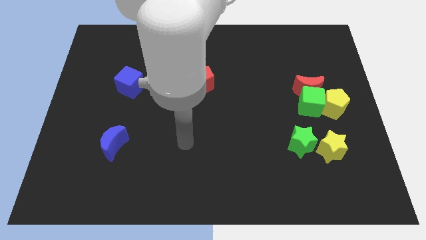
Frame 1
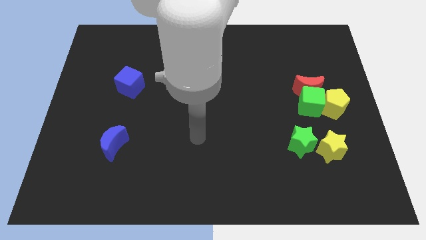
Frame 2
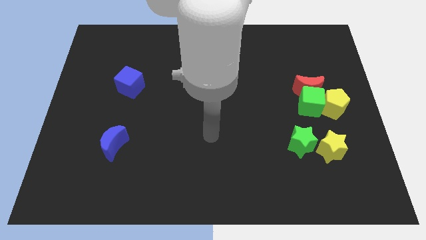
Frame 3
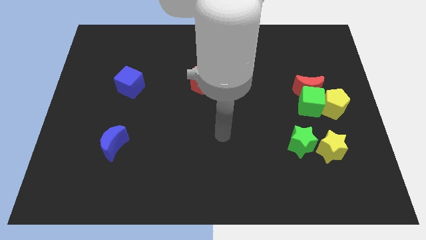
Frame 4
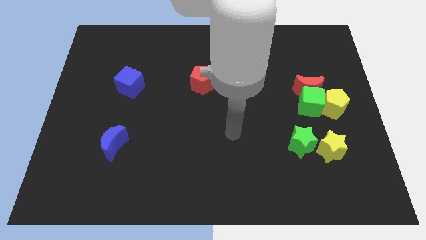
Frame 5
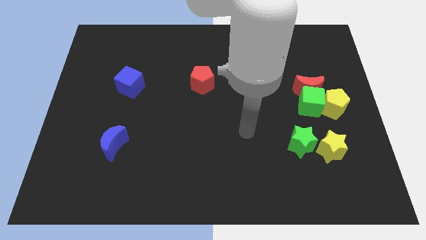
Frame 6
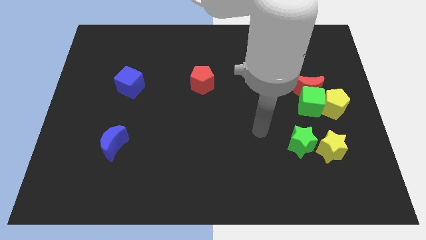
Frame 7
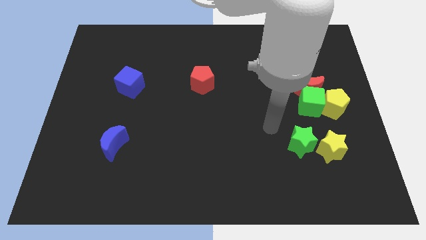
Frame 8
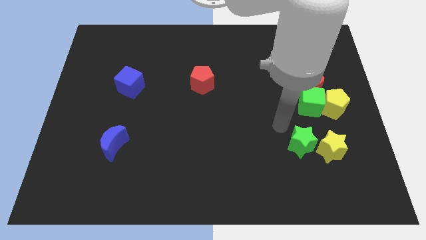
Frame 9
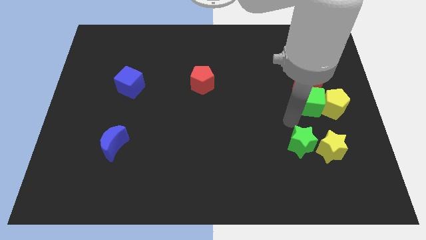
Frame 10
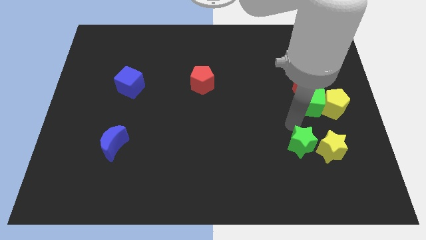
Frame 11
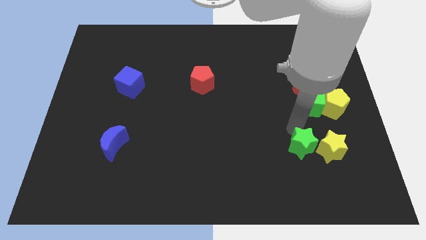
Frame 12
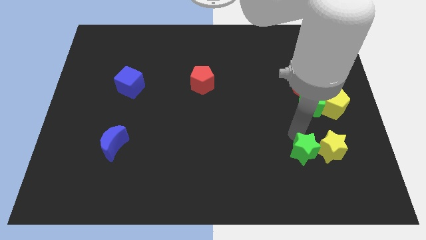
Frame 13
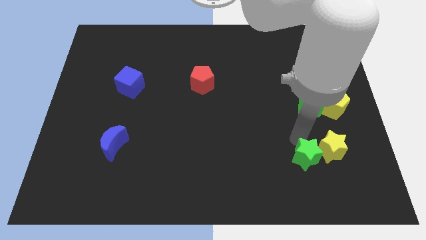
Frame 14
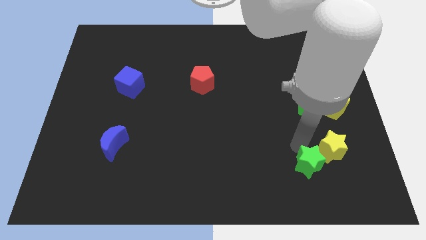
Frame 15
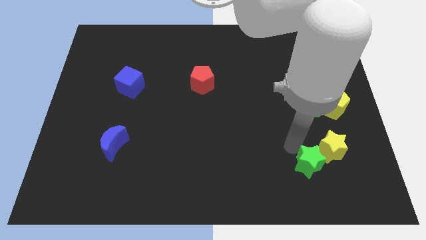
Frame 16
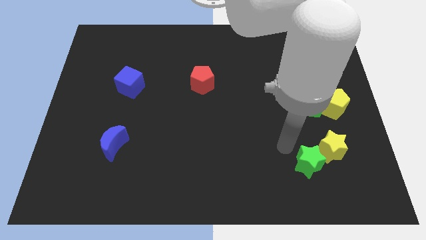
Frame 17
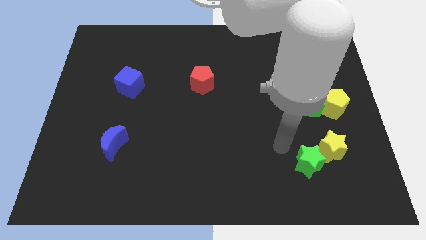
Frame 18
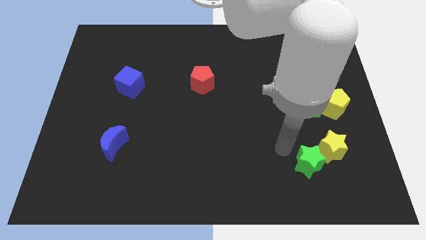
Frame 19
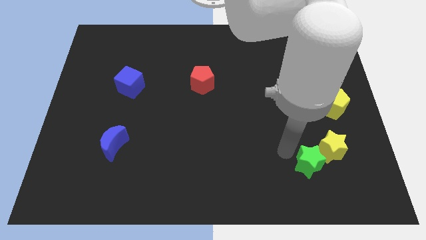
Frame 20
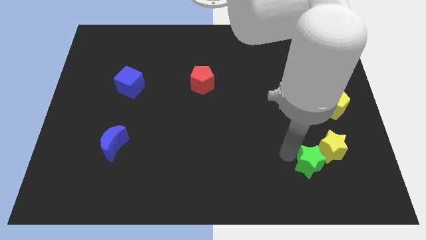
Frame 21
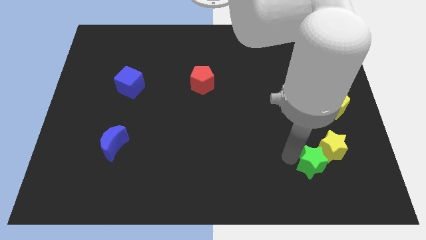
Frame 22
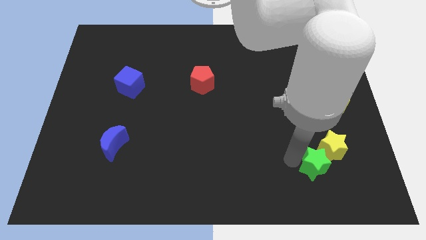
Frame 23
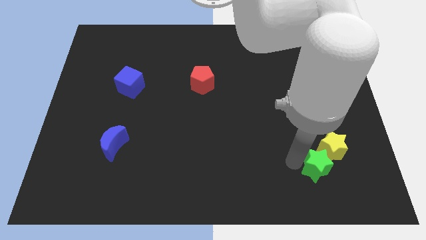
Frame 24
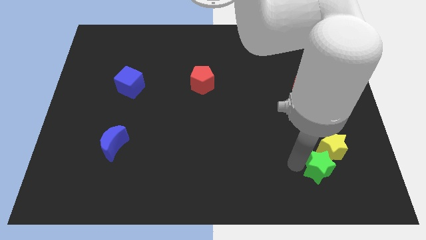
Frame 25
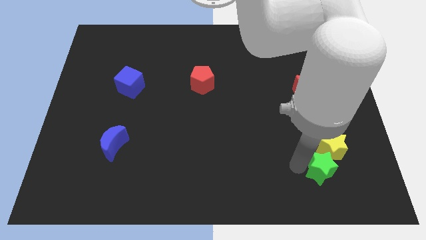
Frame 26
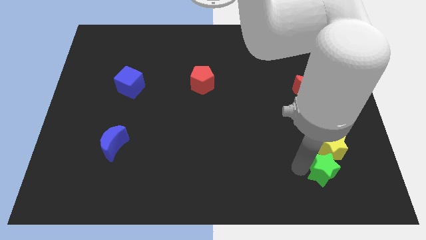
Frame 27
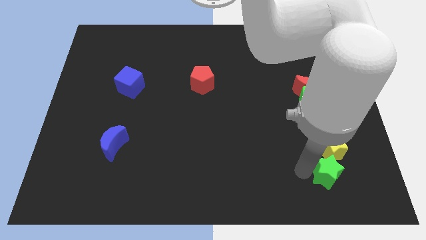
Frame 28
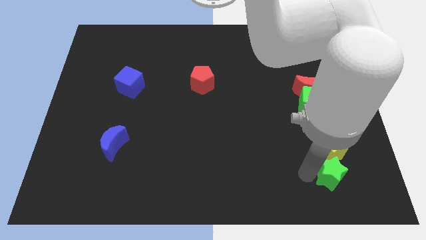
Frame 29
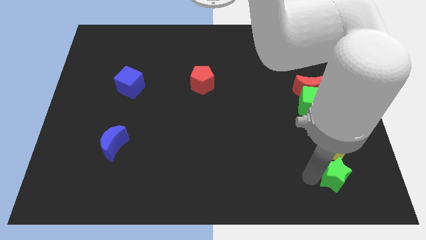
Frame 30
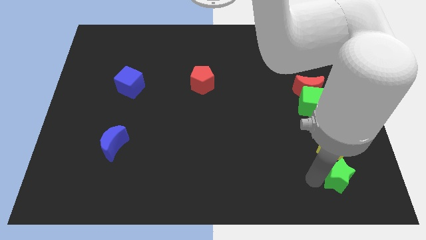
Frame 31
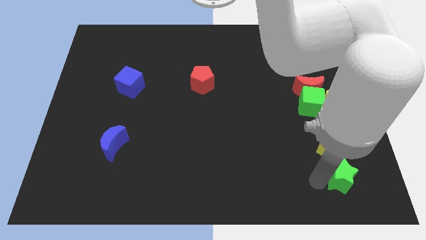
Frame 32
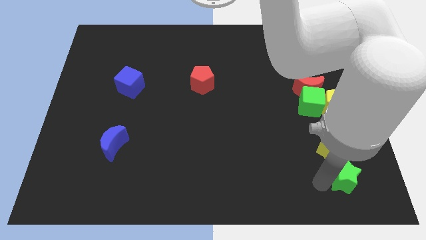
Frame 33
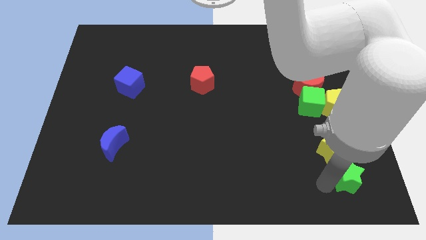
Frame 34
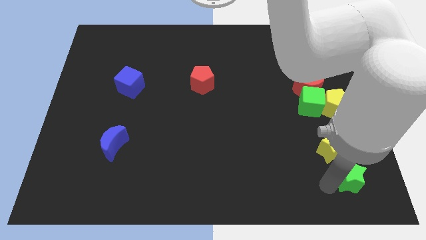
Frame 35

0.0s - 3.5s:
move the green star to the bottom right of the board

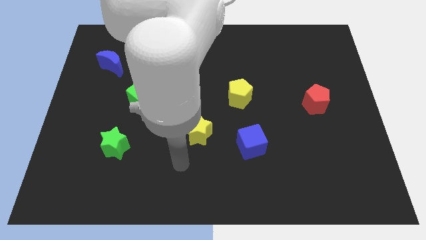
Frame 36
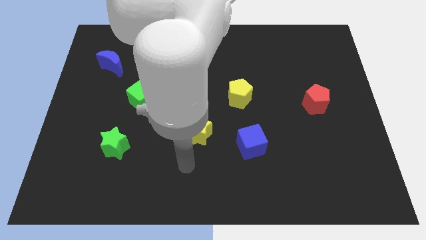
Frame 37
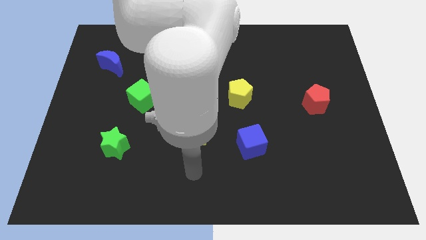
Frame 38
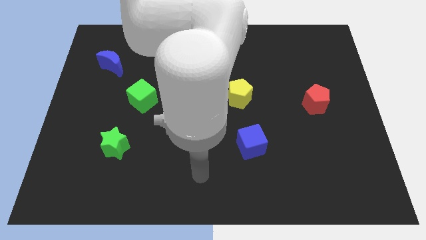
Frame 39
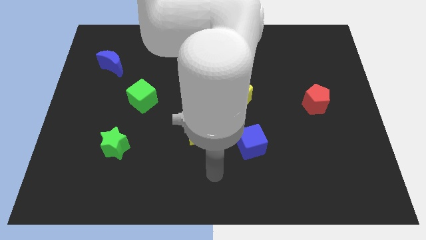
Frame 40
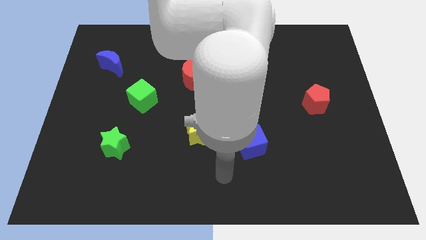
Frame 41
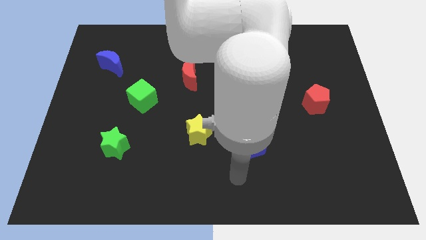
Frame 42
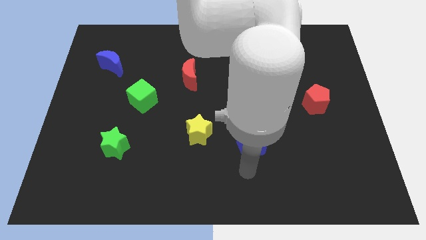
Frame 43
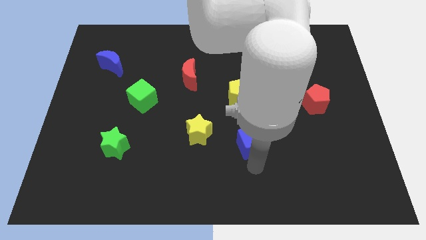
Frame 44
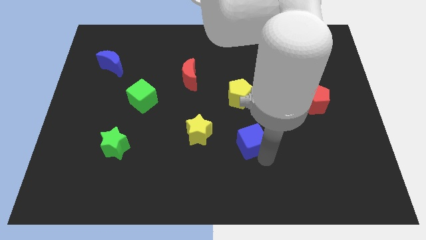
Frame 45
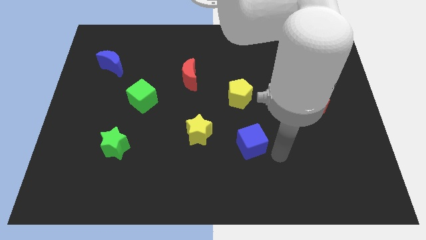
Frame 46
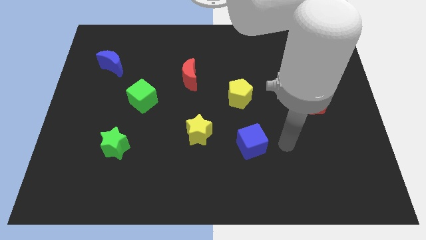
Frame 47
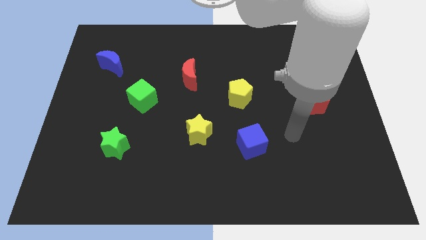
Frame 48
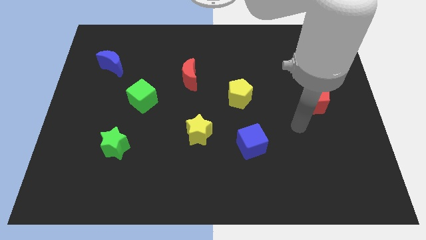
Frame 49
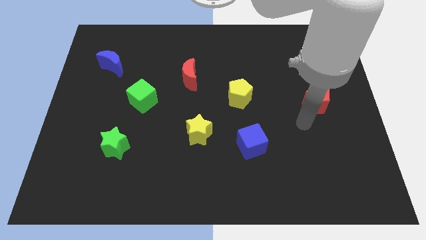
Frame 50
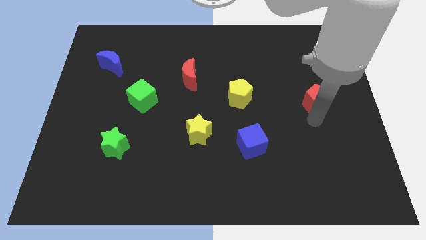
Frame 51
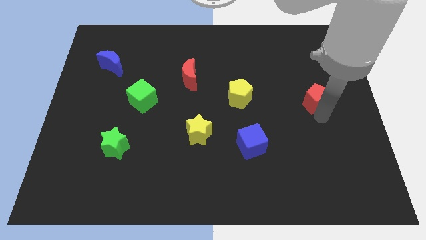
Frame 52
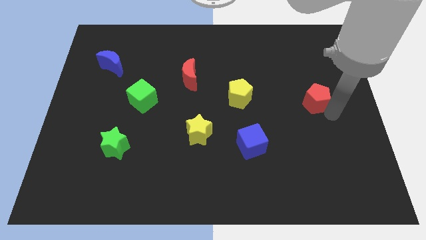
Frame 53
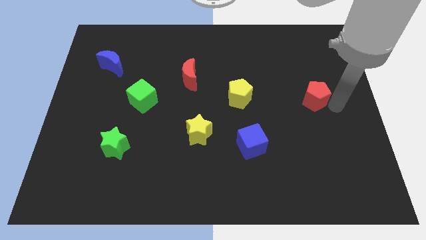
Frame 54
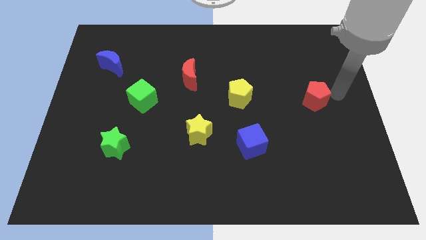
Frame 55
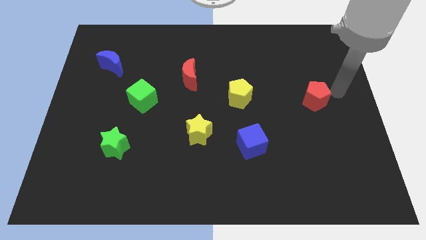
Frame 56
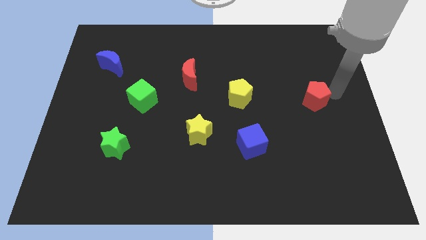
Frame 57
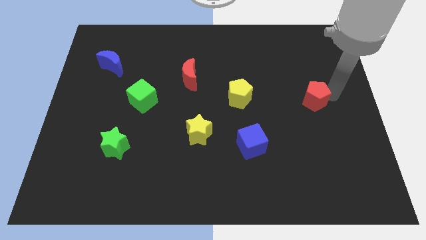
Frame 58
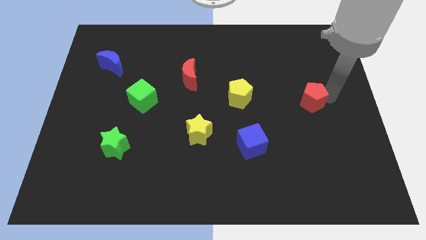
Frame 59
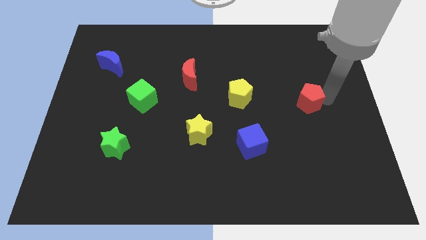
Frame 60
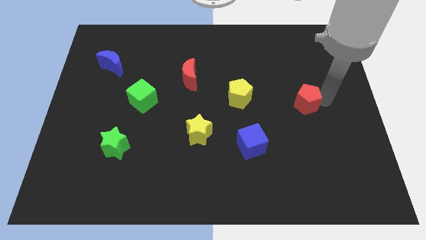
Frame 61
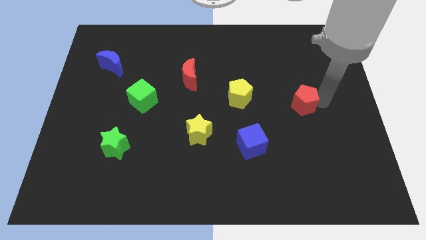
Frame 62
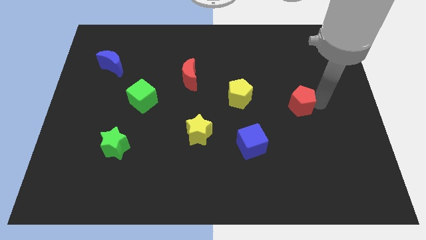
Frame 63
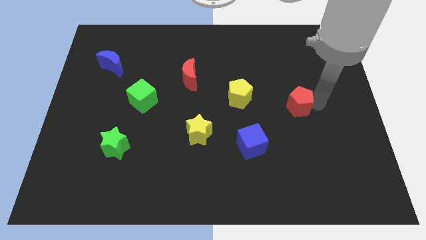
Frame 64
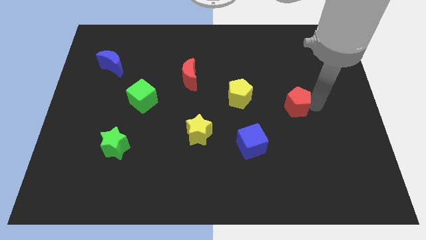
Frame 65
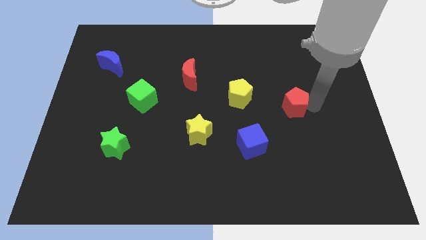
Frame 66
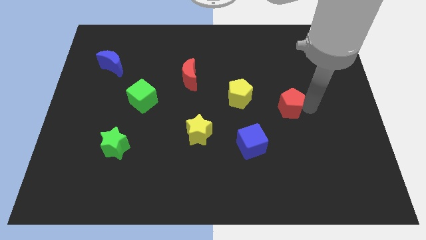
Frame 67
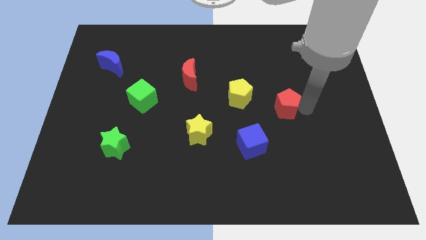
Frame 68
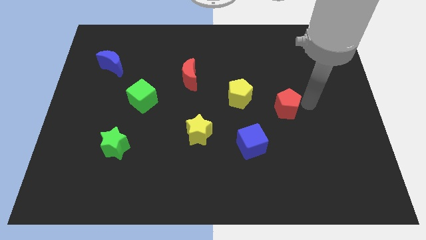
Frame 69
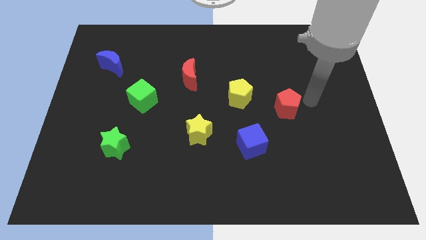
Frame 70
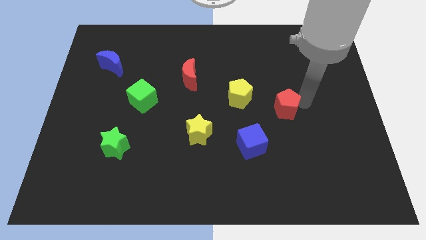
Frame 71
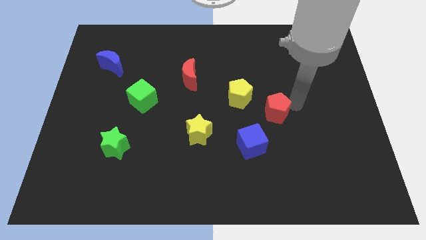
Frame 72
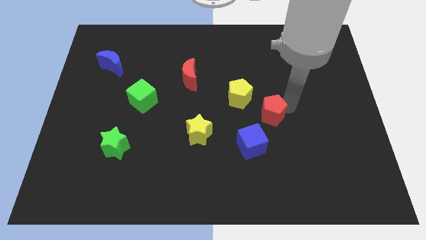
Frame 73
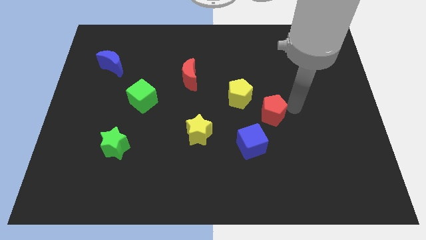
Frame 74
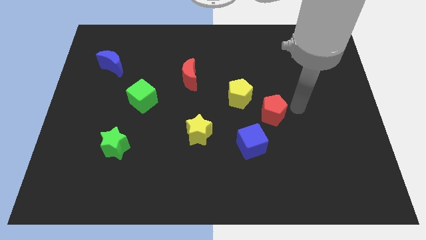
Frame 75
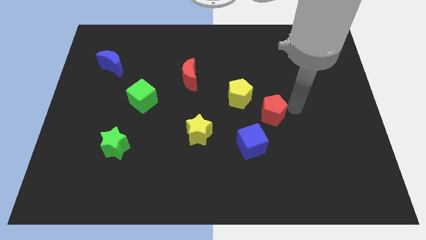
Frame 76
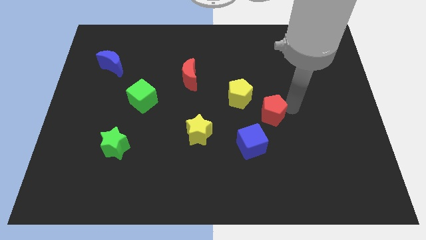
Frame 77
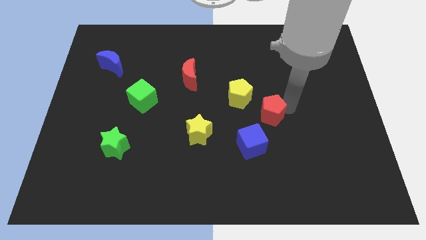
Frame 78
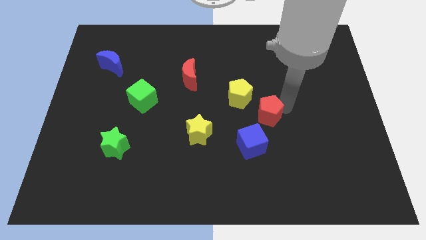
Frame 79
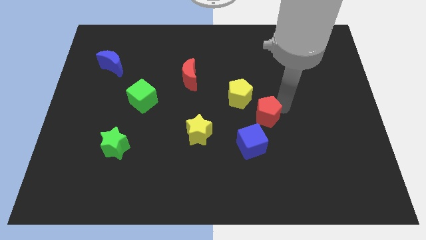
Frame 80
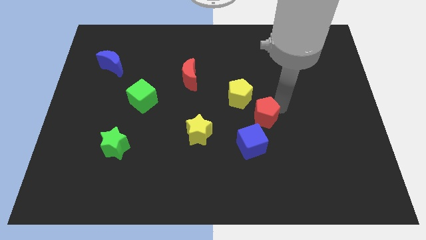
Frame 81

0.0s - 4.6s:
push the red pentagon to the center

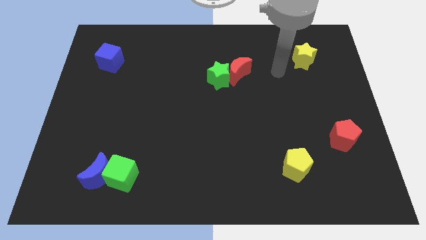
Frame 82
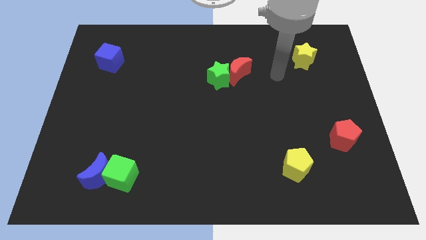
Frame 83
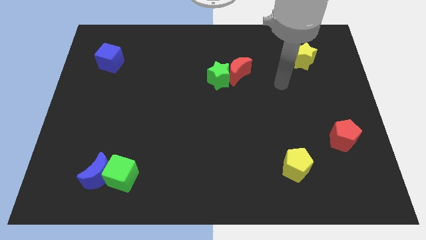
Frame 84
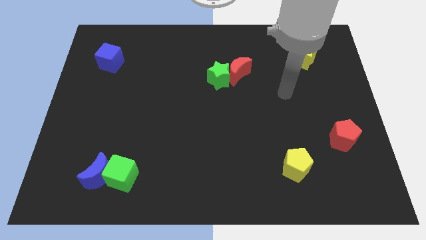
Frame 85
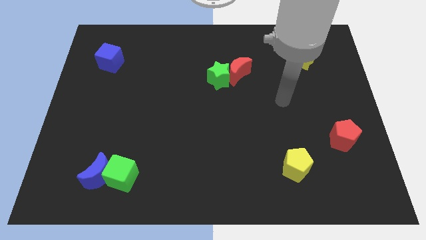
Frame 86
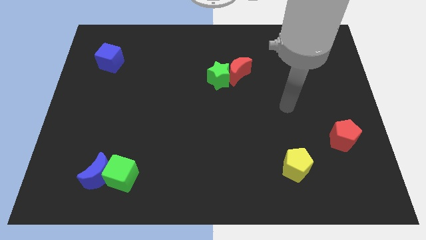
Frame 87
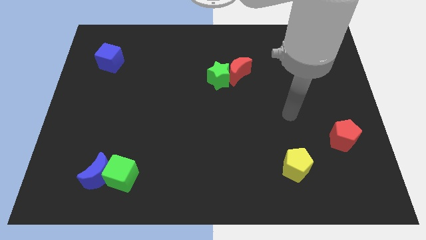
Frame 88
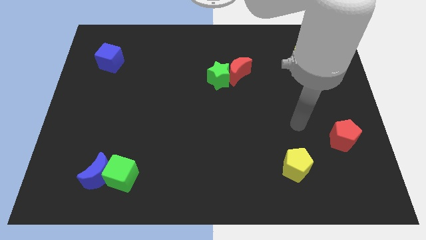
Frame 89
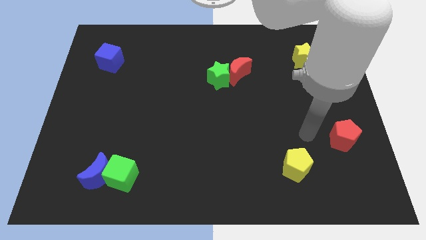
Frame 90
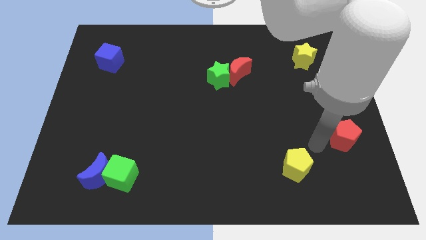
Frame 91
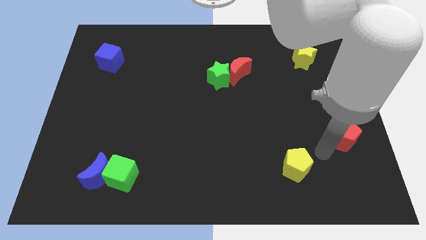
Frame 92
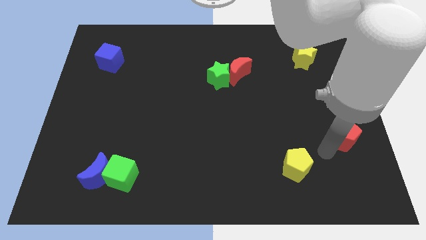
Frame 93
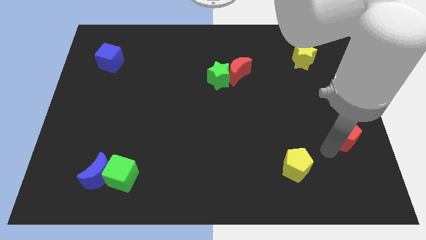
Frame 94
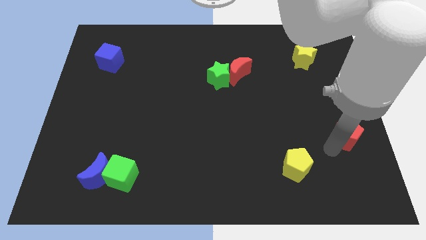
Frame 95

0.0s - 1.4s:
push the red pentagon to the right side of the board
